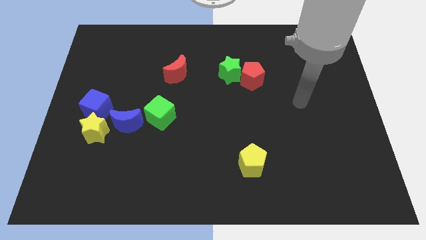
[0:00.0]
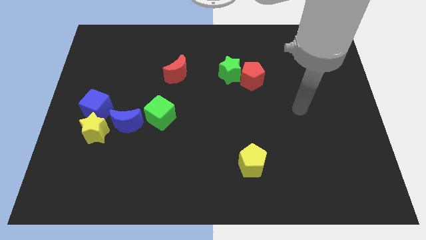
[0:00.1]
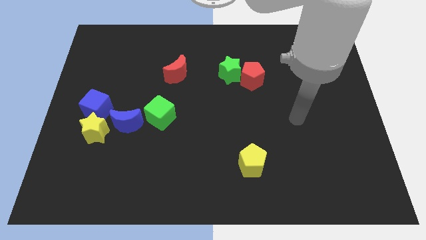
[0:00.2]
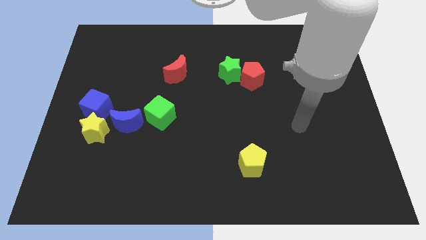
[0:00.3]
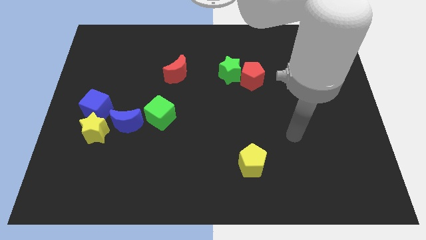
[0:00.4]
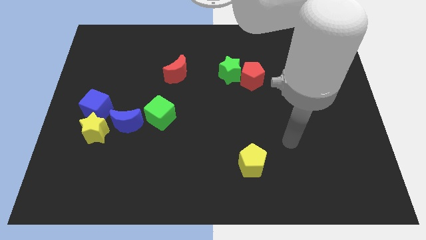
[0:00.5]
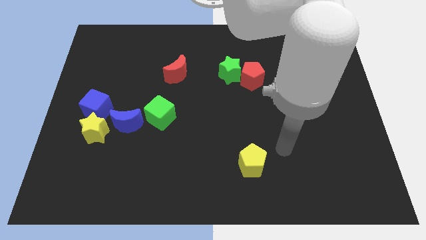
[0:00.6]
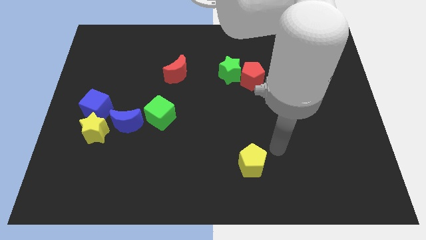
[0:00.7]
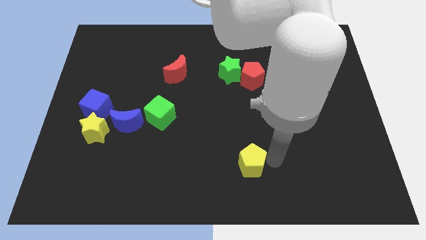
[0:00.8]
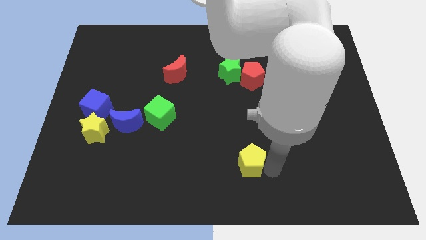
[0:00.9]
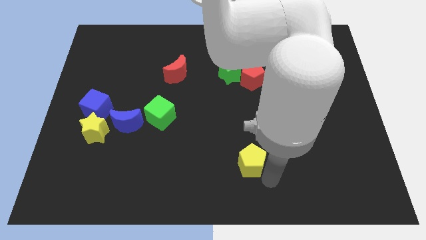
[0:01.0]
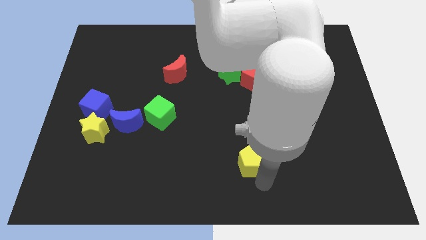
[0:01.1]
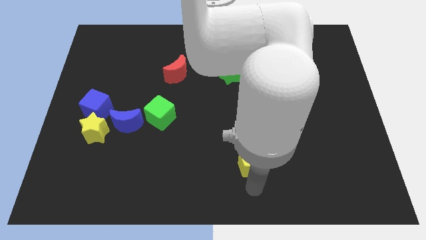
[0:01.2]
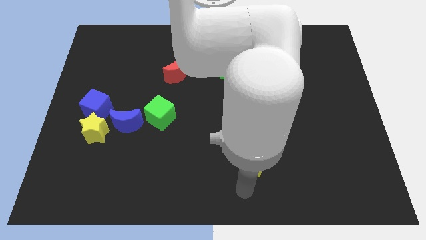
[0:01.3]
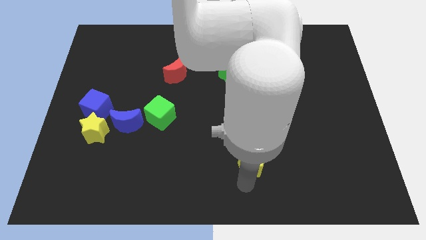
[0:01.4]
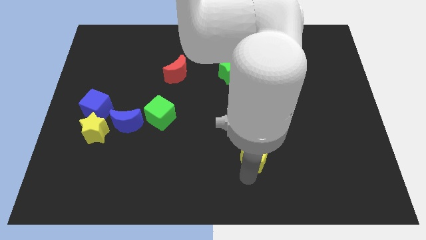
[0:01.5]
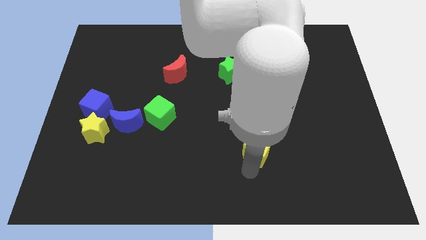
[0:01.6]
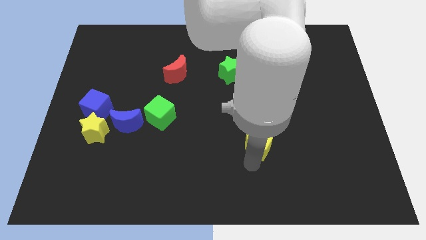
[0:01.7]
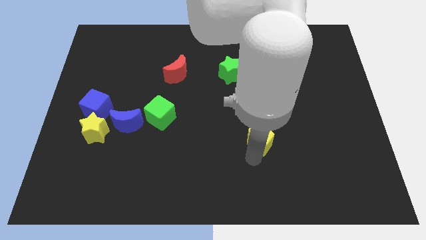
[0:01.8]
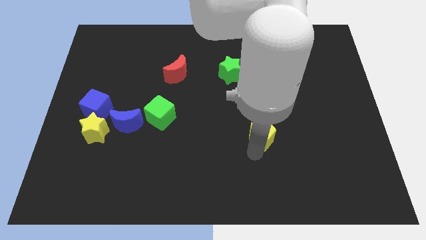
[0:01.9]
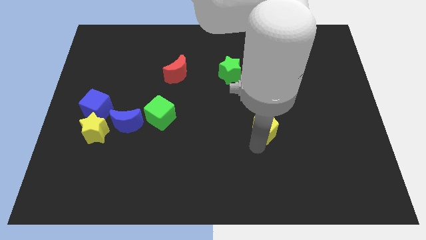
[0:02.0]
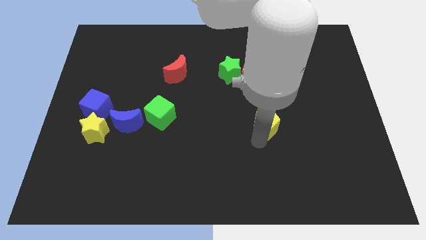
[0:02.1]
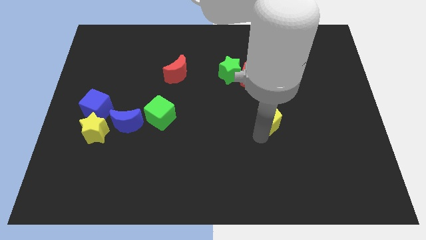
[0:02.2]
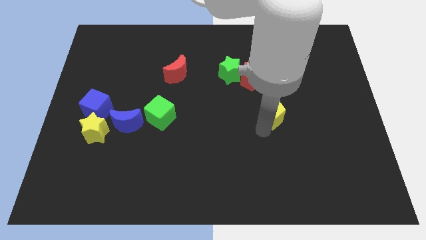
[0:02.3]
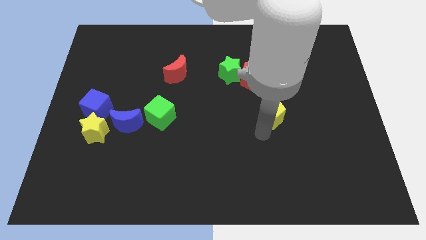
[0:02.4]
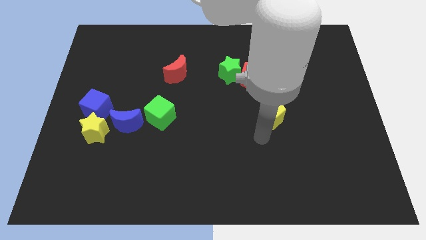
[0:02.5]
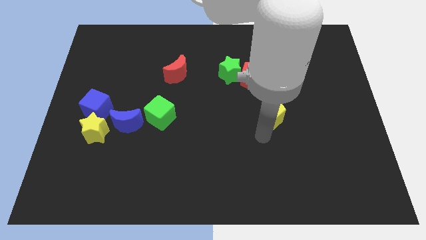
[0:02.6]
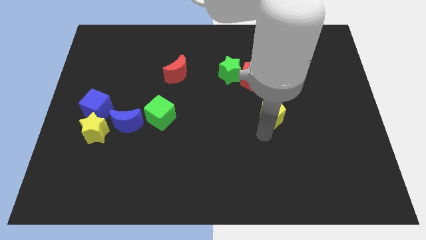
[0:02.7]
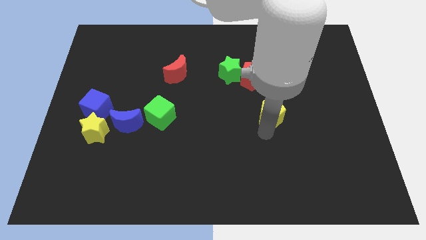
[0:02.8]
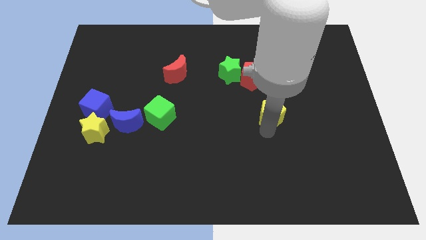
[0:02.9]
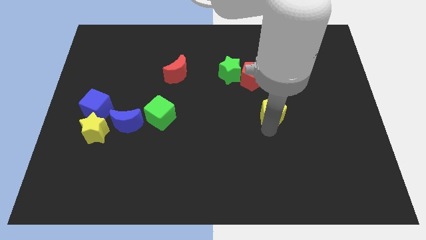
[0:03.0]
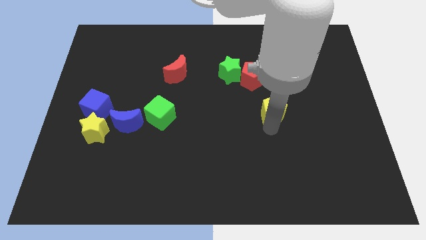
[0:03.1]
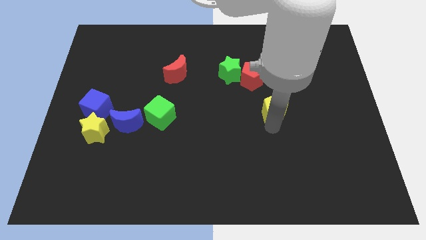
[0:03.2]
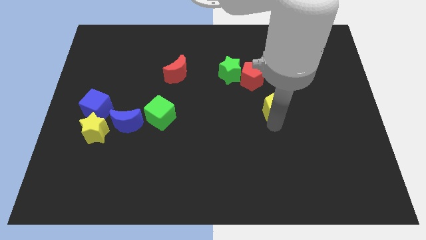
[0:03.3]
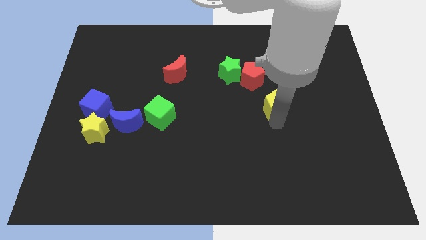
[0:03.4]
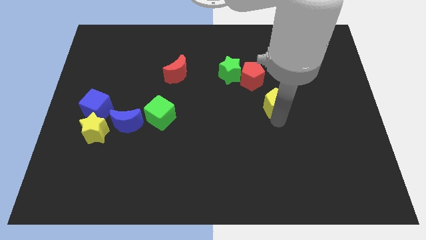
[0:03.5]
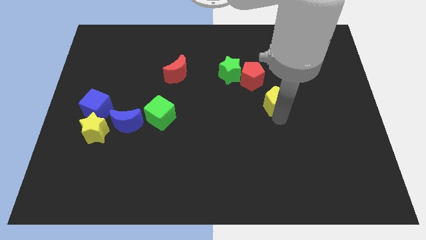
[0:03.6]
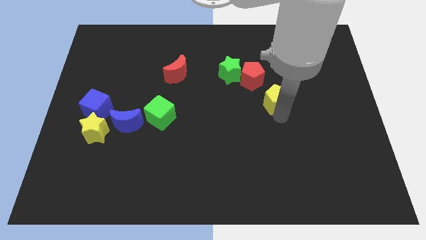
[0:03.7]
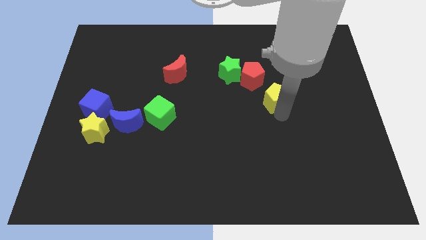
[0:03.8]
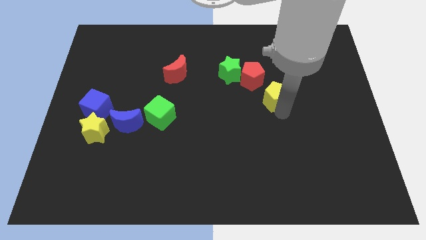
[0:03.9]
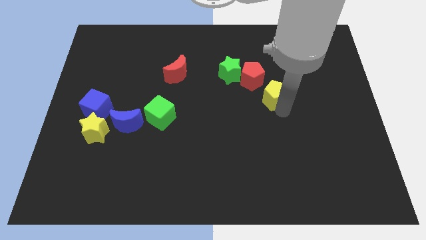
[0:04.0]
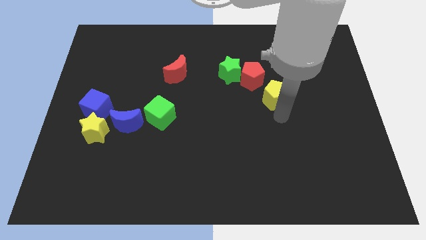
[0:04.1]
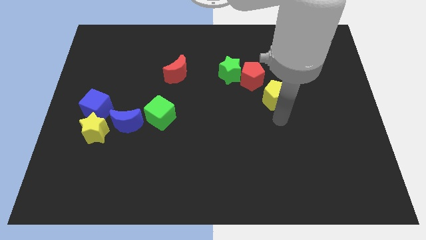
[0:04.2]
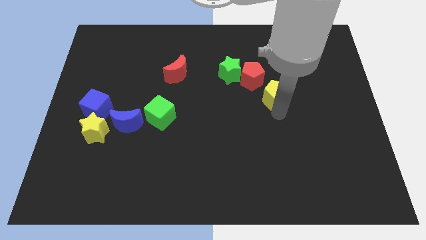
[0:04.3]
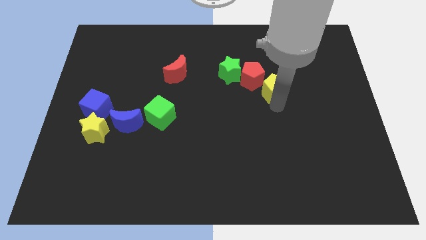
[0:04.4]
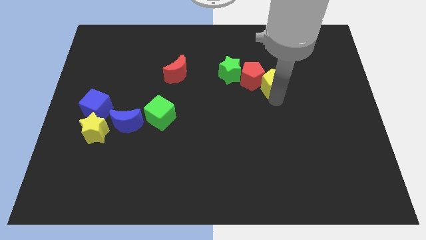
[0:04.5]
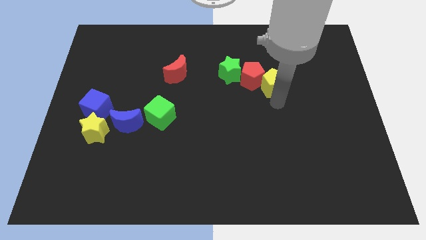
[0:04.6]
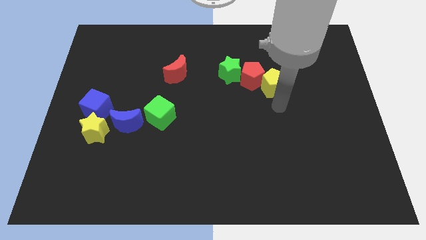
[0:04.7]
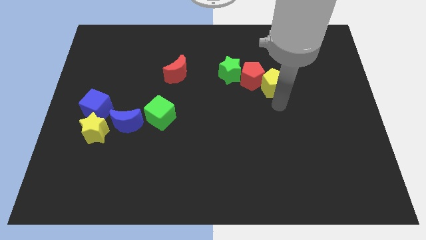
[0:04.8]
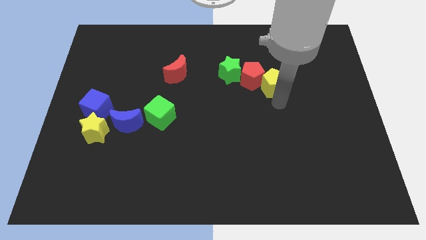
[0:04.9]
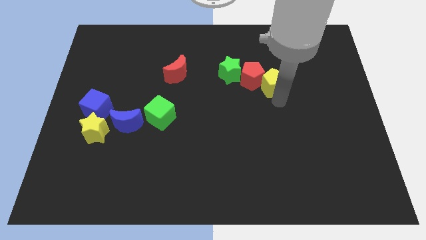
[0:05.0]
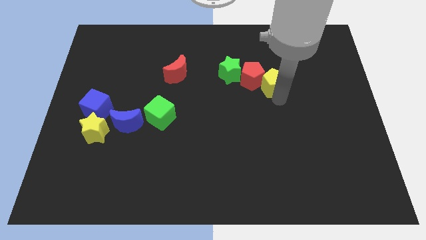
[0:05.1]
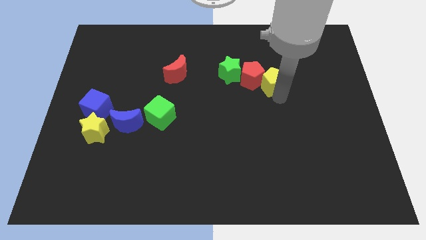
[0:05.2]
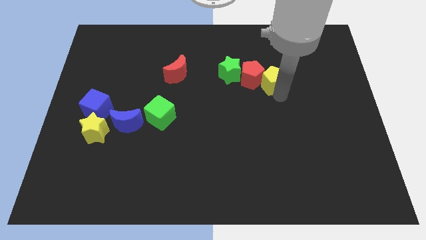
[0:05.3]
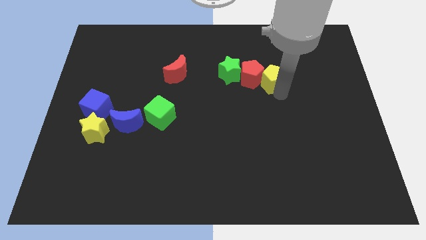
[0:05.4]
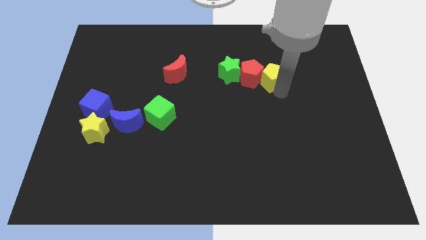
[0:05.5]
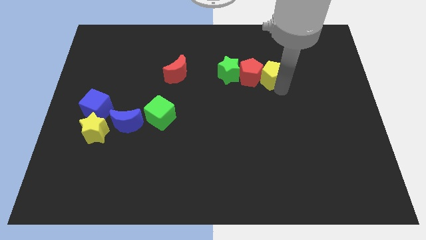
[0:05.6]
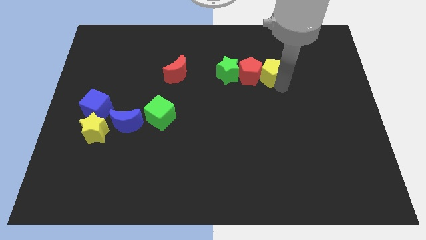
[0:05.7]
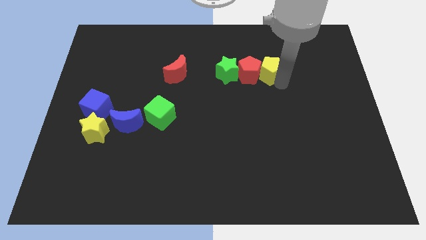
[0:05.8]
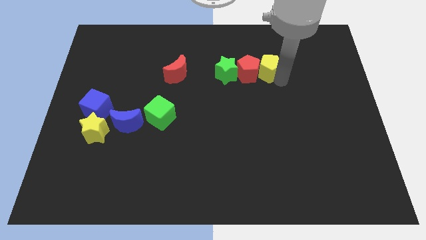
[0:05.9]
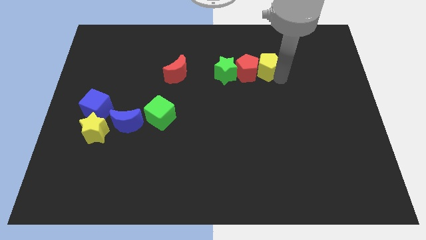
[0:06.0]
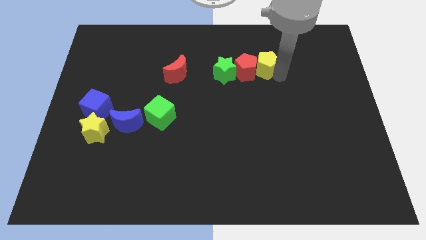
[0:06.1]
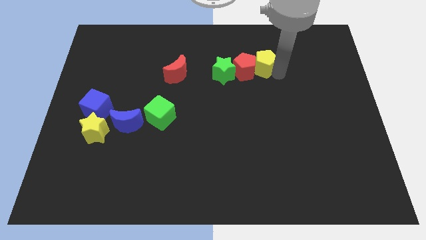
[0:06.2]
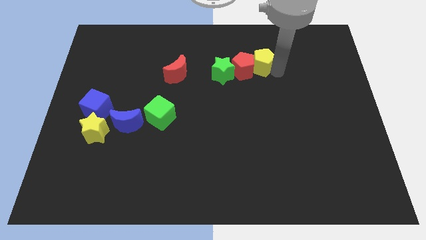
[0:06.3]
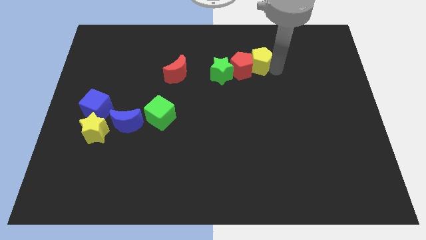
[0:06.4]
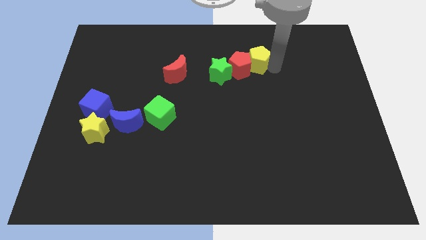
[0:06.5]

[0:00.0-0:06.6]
move the yellow pentagon to the top right side of the green star

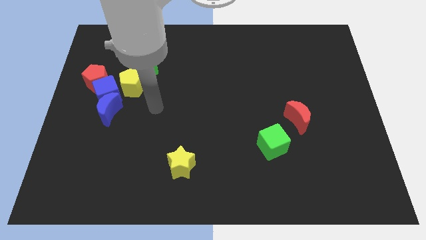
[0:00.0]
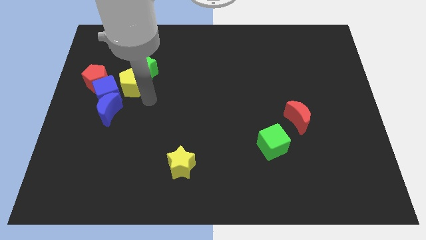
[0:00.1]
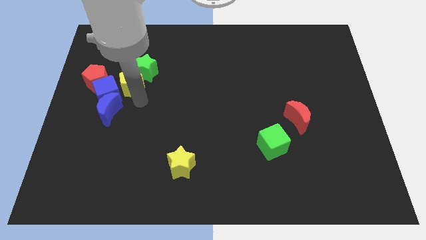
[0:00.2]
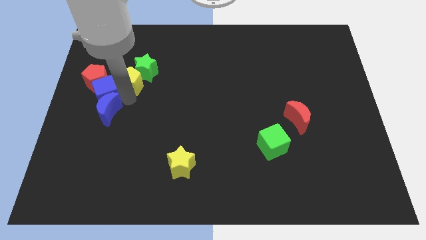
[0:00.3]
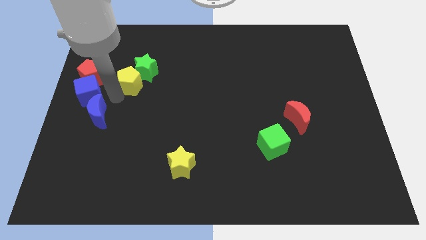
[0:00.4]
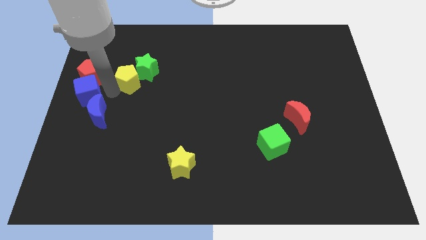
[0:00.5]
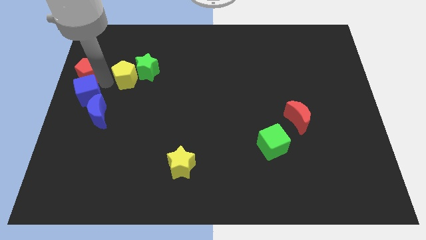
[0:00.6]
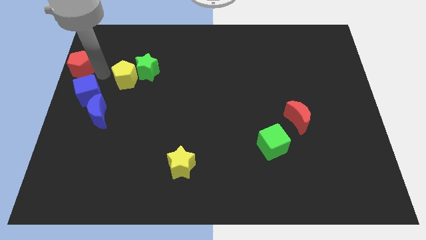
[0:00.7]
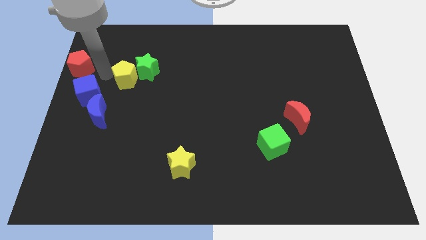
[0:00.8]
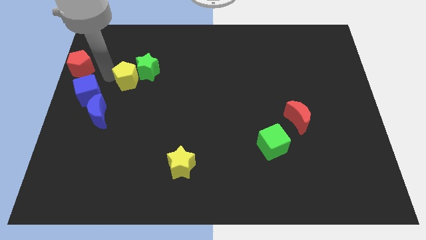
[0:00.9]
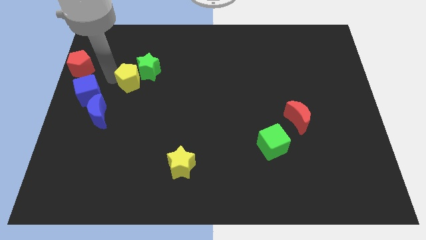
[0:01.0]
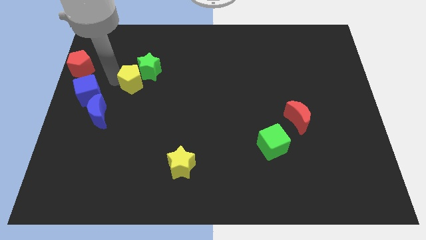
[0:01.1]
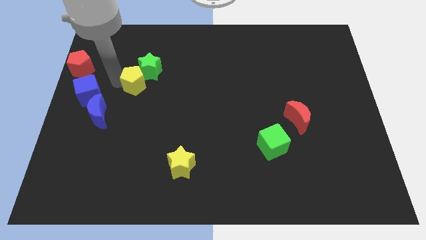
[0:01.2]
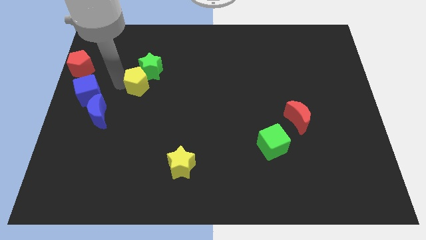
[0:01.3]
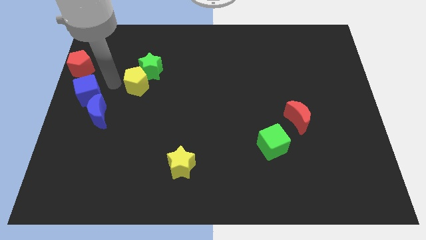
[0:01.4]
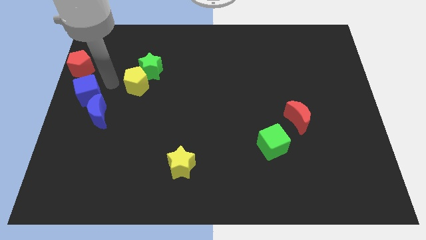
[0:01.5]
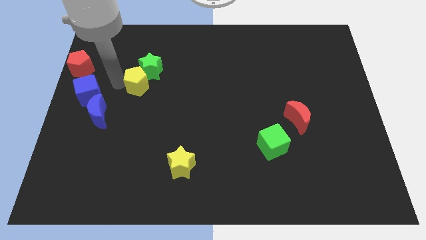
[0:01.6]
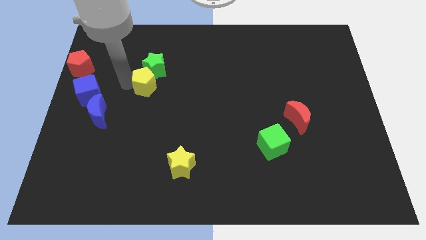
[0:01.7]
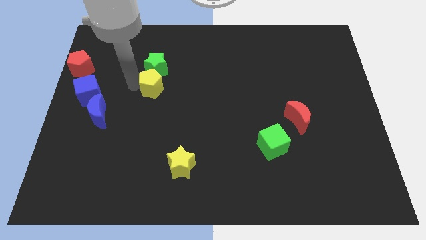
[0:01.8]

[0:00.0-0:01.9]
slide the yellow pentagon to the bottom right side of the green star

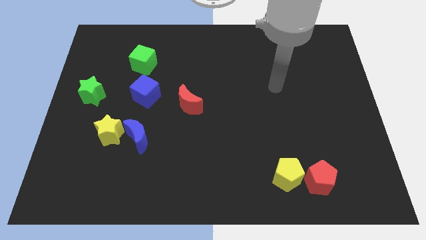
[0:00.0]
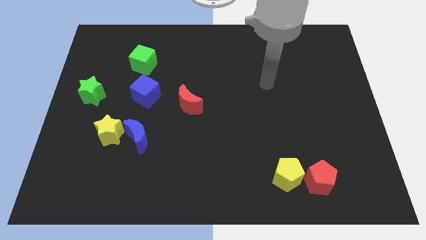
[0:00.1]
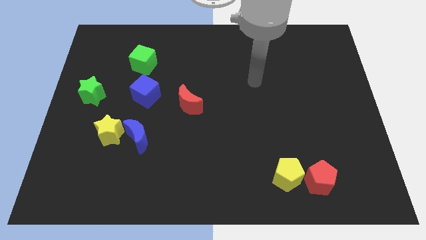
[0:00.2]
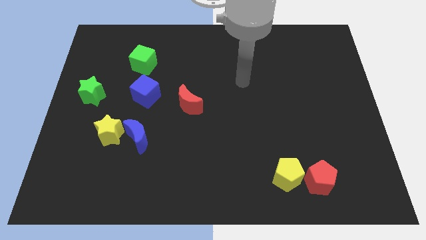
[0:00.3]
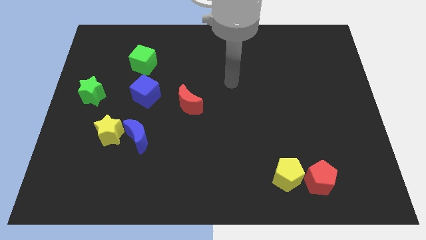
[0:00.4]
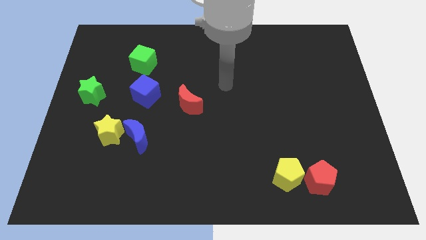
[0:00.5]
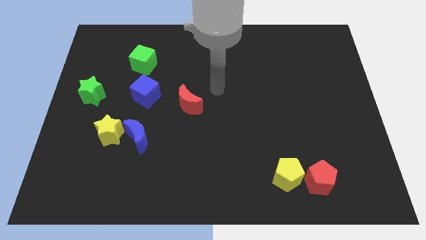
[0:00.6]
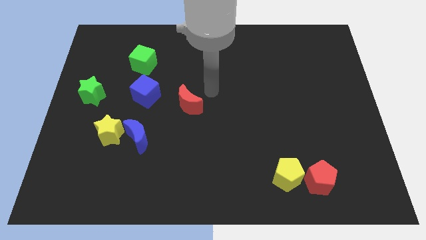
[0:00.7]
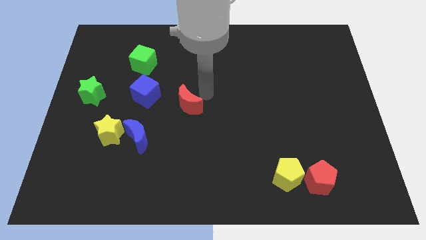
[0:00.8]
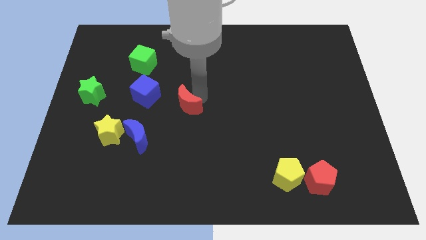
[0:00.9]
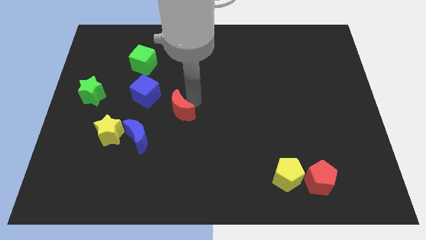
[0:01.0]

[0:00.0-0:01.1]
move the red moon to the top right side of the blue moon
